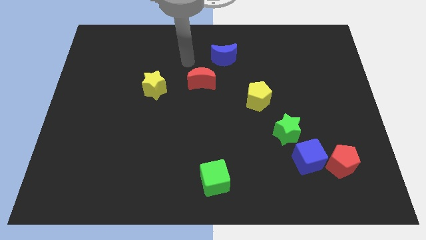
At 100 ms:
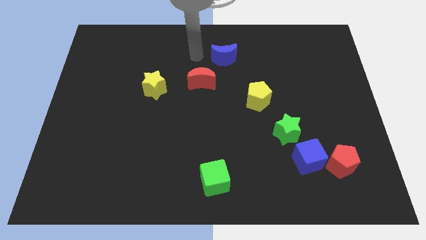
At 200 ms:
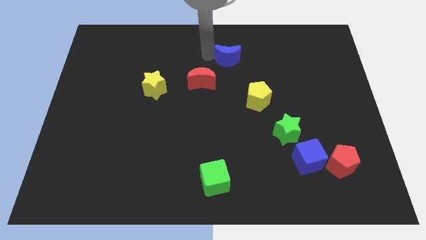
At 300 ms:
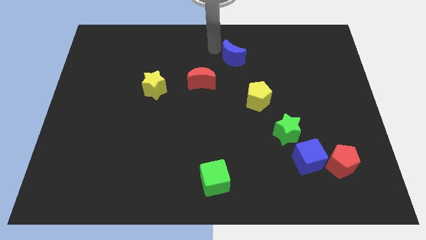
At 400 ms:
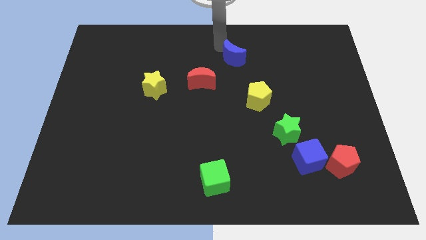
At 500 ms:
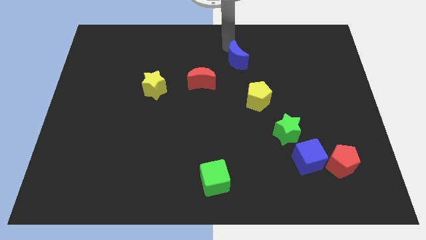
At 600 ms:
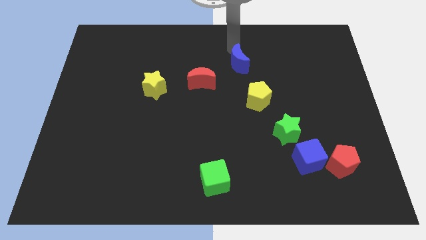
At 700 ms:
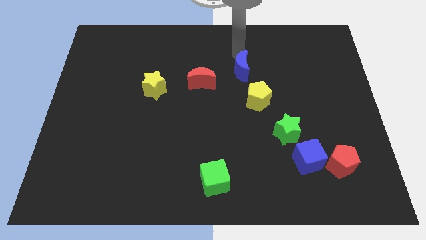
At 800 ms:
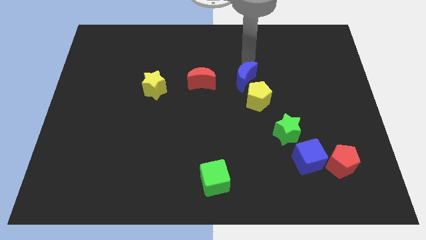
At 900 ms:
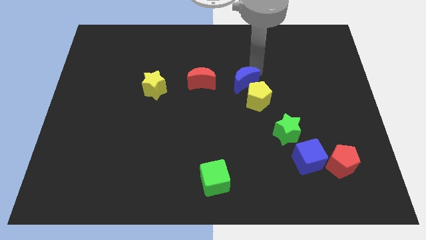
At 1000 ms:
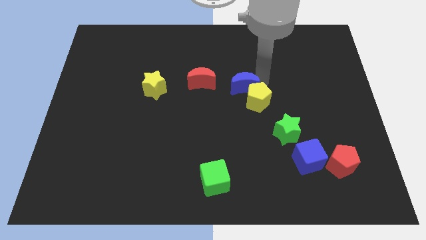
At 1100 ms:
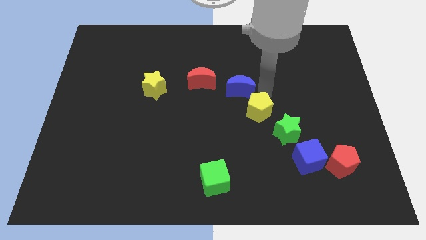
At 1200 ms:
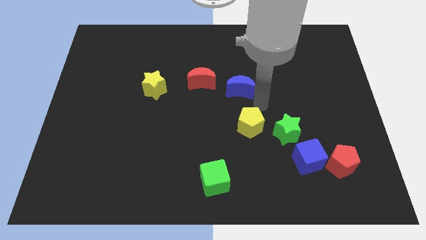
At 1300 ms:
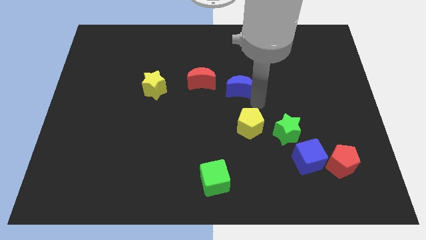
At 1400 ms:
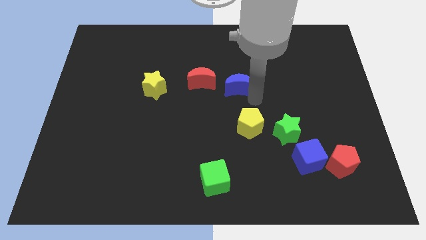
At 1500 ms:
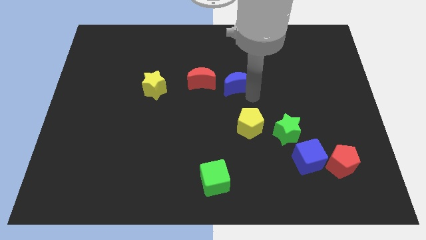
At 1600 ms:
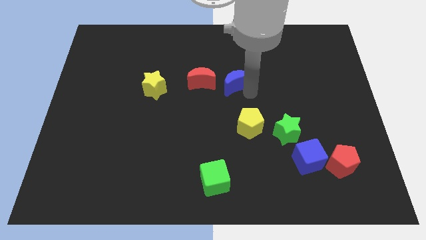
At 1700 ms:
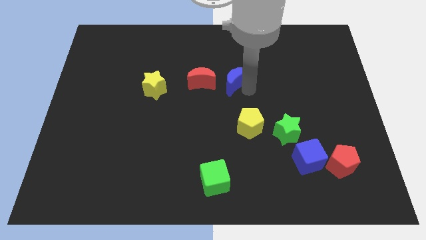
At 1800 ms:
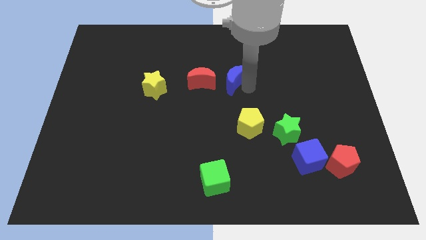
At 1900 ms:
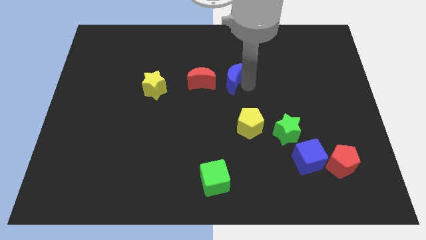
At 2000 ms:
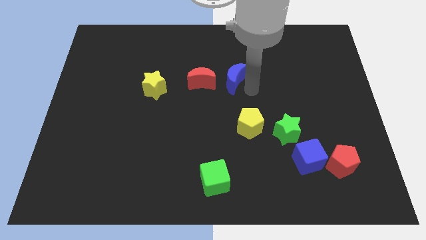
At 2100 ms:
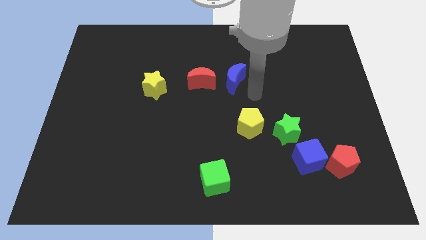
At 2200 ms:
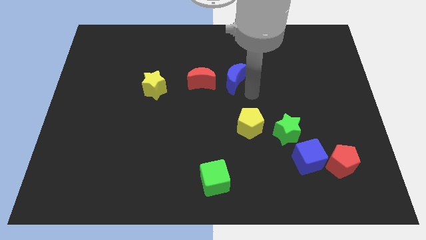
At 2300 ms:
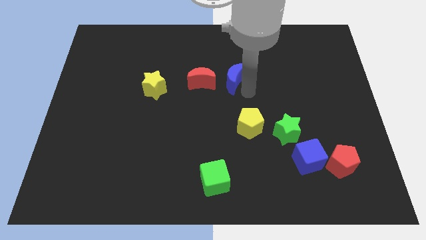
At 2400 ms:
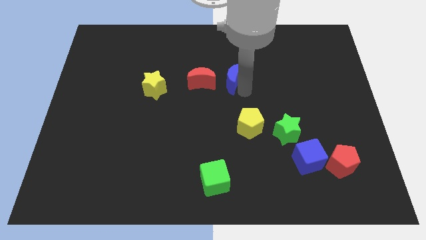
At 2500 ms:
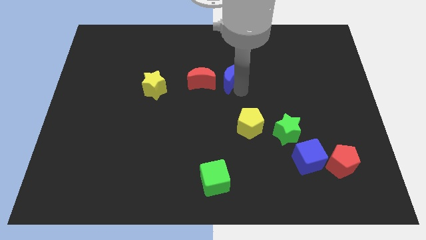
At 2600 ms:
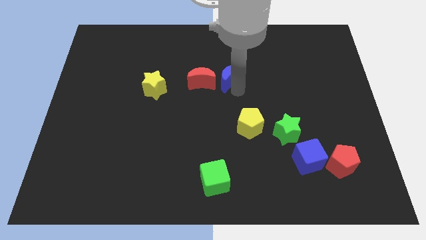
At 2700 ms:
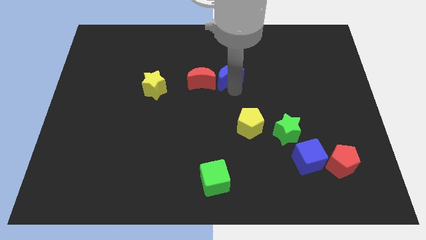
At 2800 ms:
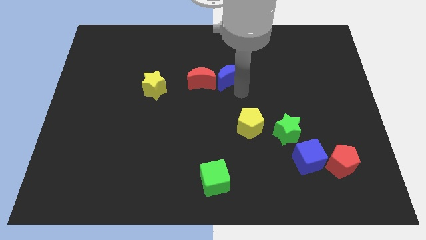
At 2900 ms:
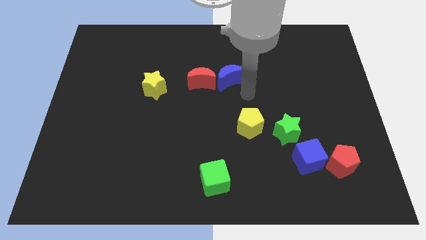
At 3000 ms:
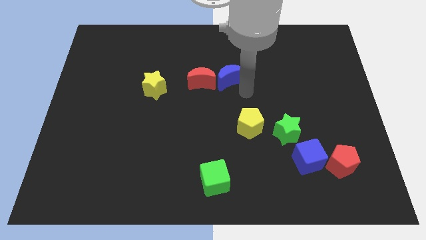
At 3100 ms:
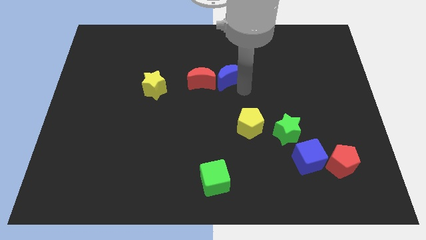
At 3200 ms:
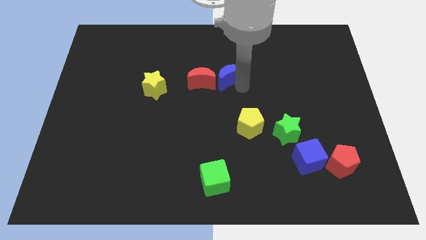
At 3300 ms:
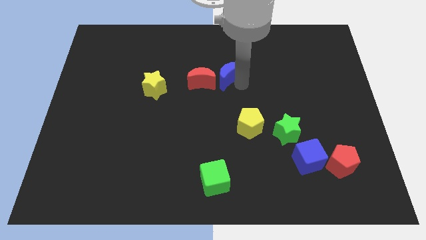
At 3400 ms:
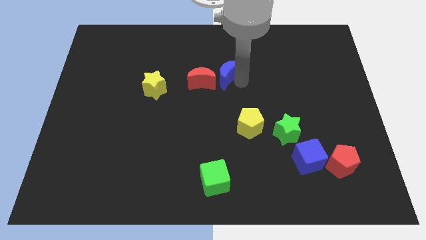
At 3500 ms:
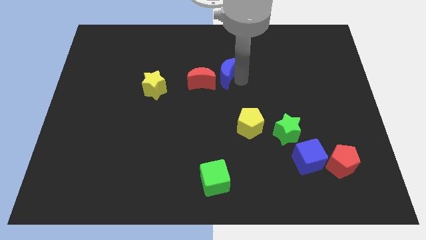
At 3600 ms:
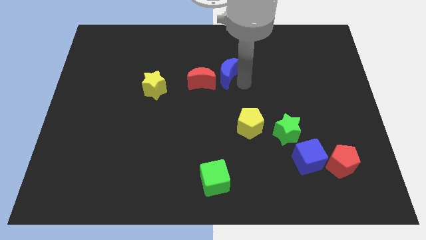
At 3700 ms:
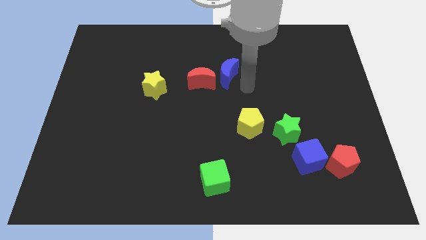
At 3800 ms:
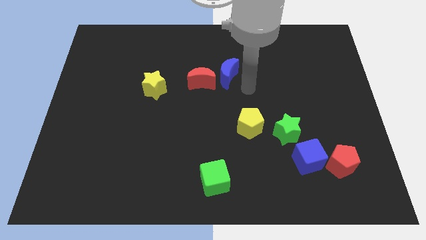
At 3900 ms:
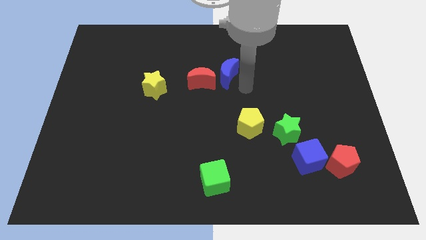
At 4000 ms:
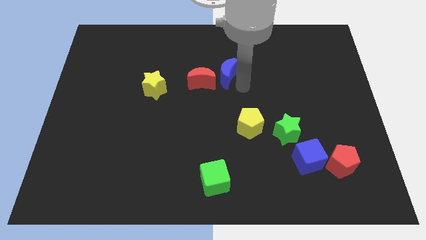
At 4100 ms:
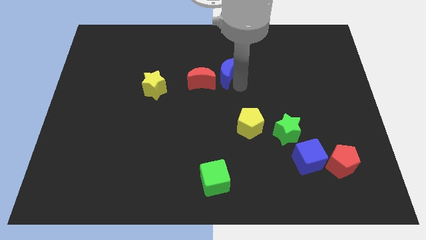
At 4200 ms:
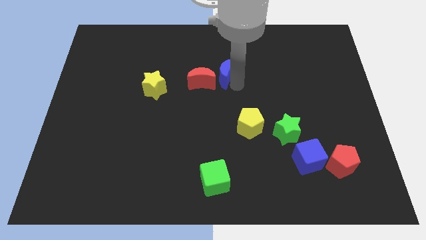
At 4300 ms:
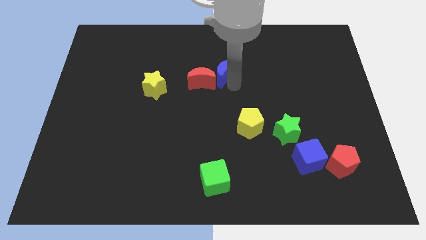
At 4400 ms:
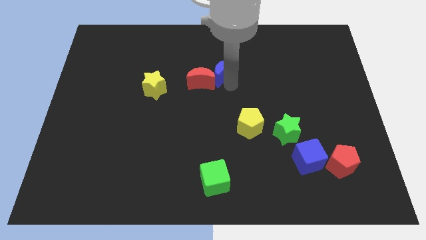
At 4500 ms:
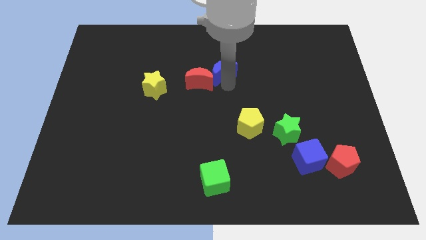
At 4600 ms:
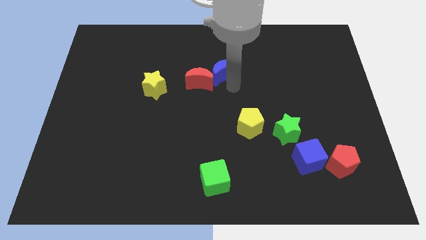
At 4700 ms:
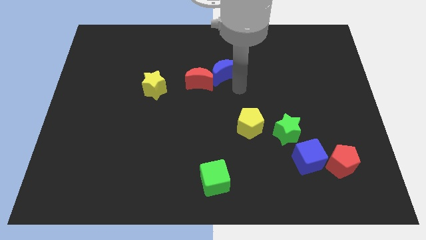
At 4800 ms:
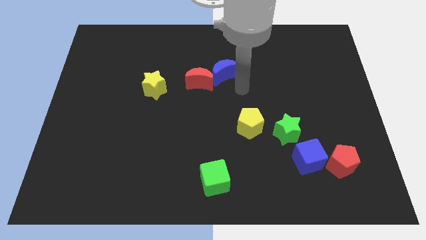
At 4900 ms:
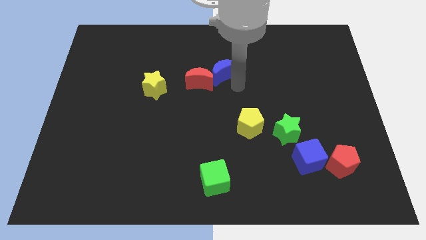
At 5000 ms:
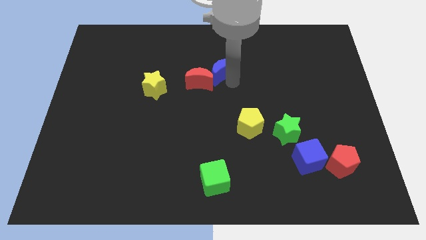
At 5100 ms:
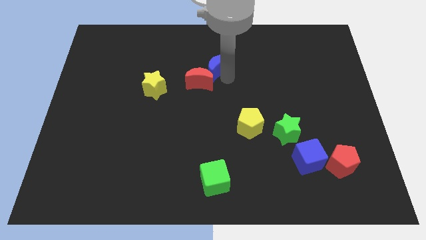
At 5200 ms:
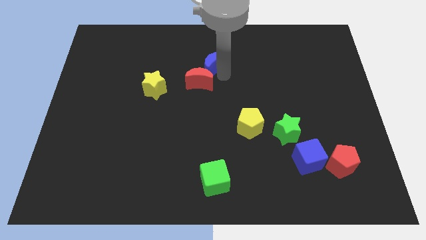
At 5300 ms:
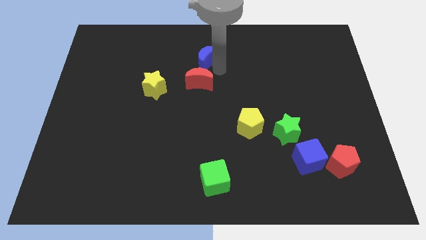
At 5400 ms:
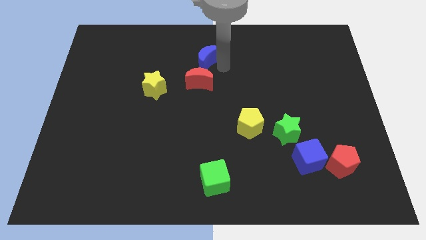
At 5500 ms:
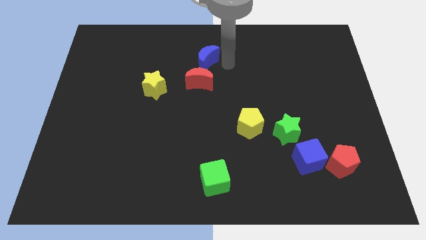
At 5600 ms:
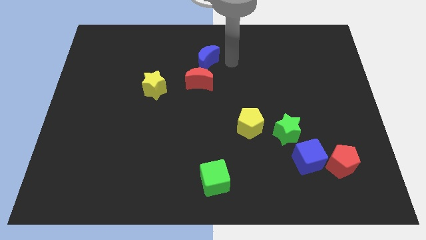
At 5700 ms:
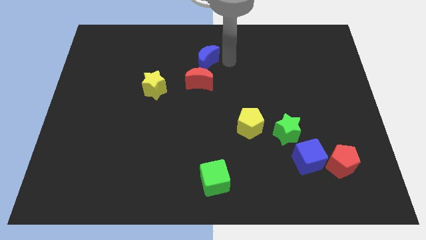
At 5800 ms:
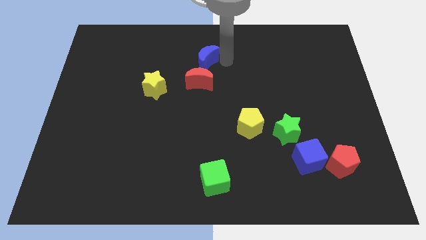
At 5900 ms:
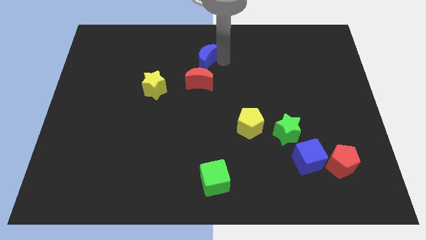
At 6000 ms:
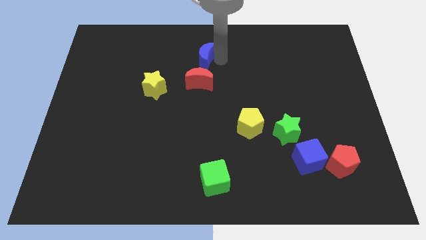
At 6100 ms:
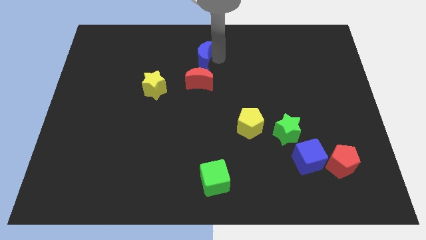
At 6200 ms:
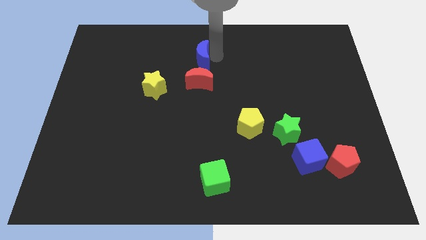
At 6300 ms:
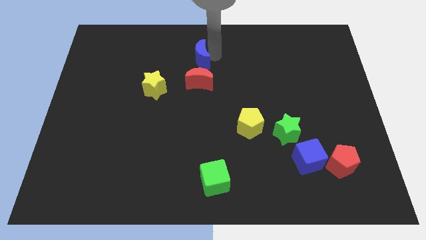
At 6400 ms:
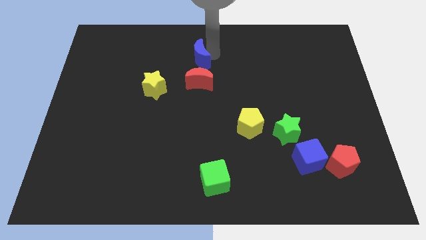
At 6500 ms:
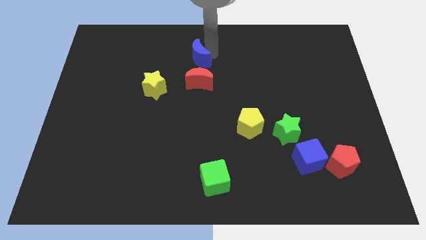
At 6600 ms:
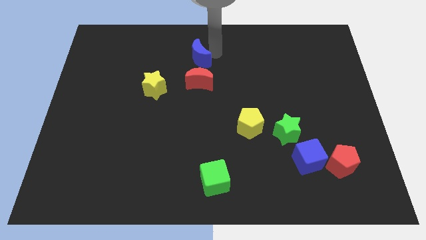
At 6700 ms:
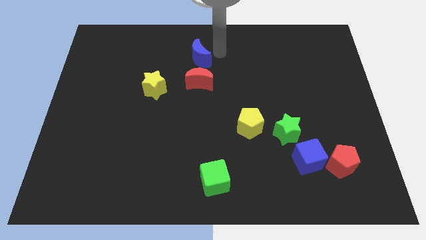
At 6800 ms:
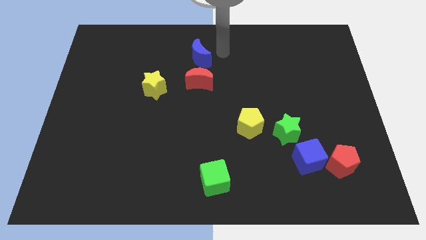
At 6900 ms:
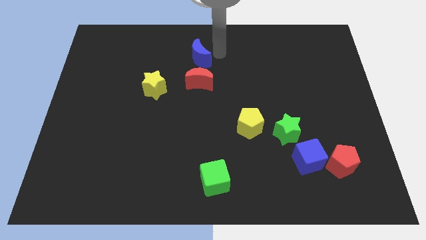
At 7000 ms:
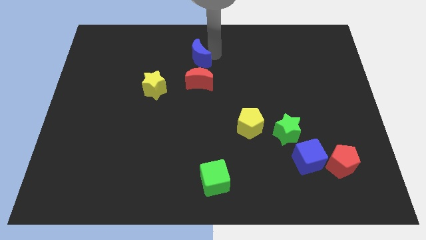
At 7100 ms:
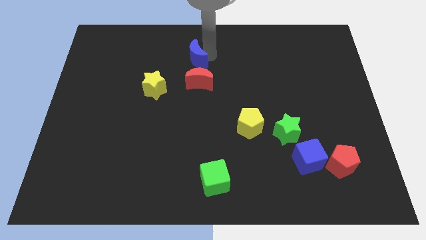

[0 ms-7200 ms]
slide the blue moon a bit to the left

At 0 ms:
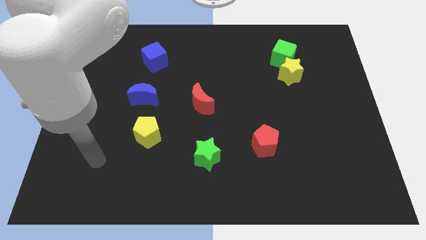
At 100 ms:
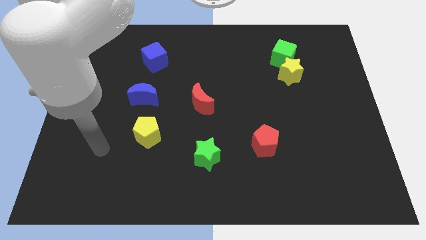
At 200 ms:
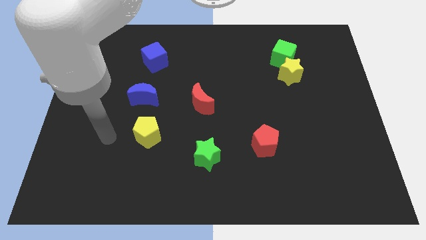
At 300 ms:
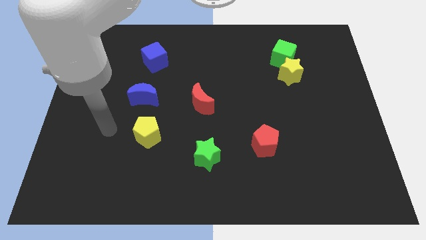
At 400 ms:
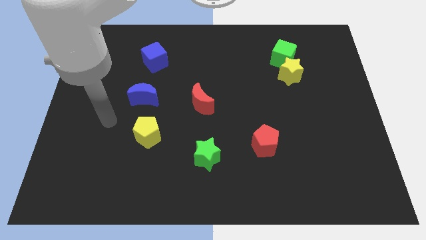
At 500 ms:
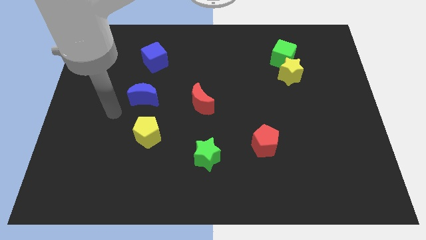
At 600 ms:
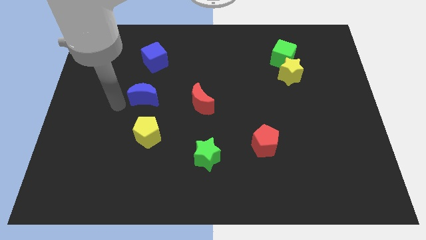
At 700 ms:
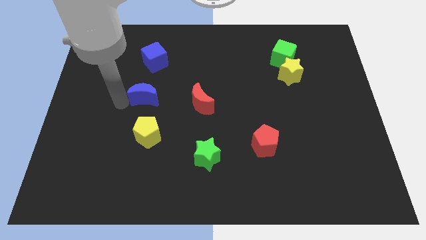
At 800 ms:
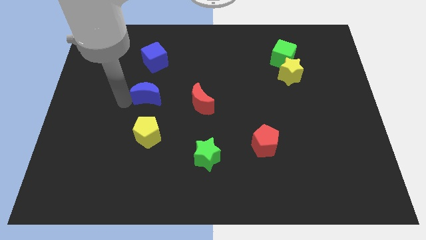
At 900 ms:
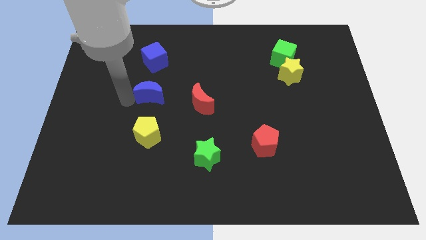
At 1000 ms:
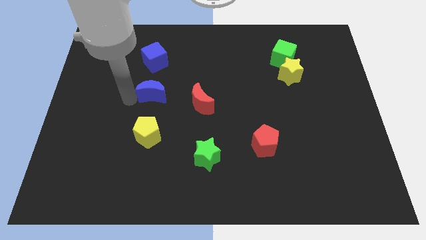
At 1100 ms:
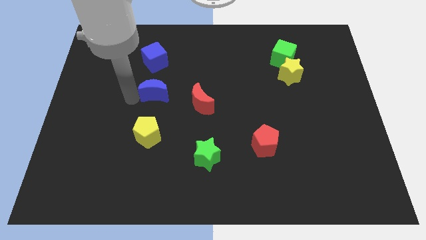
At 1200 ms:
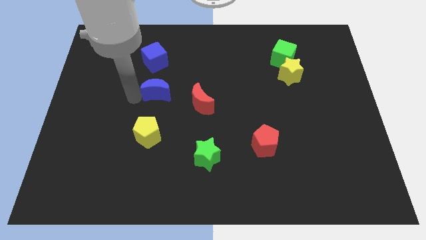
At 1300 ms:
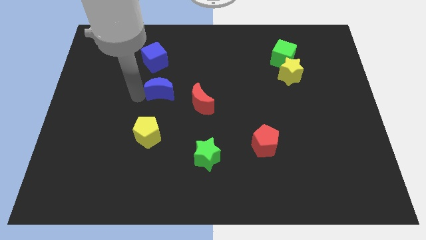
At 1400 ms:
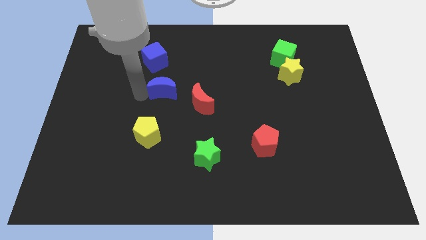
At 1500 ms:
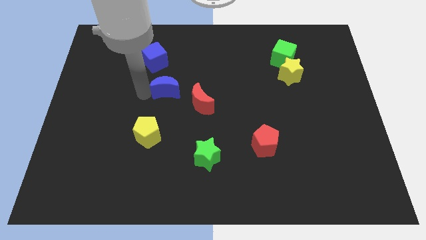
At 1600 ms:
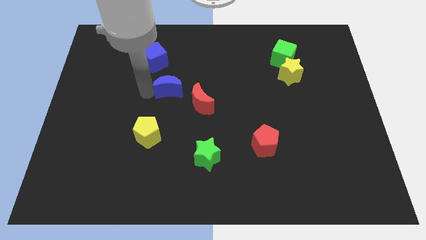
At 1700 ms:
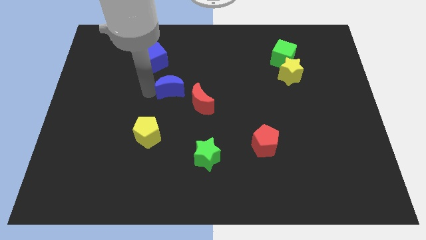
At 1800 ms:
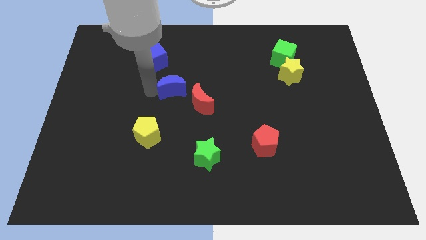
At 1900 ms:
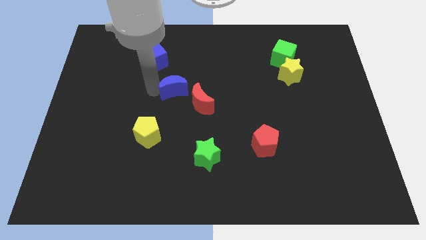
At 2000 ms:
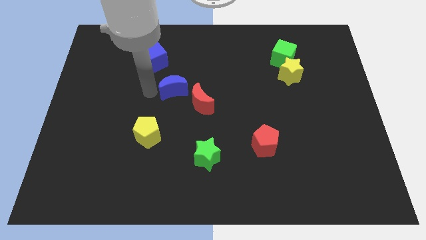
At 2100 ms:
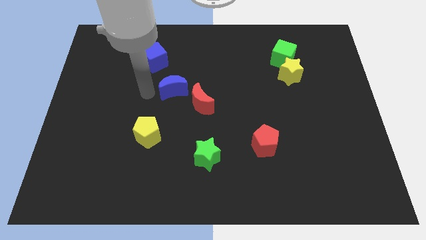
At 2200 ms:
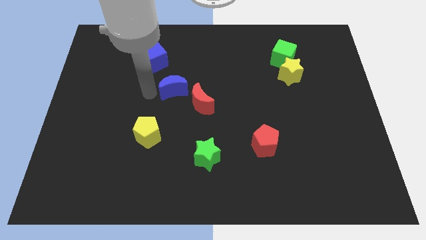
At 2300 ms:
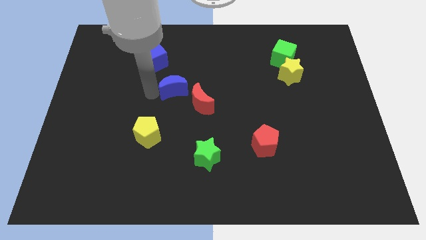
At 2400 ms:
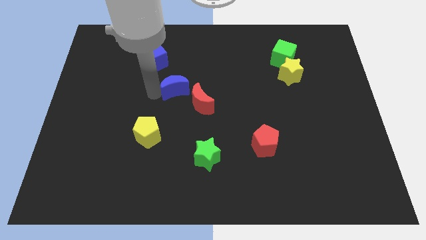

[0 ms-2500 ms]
push the blue moon a little bit to the right
